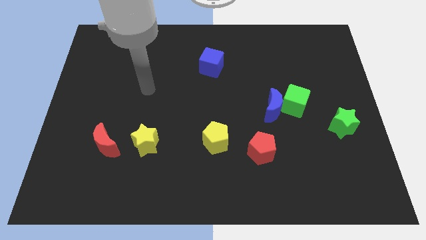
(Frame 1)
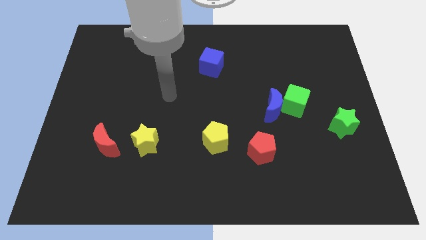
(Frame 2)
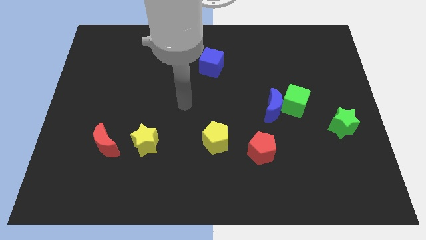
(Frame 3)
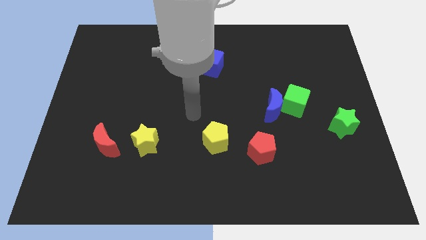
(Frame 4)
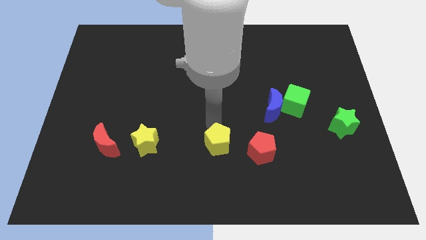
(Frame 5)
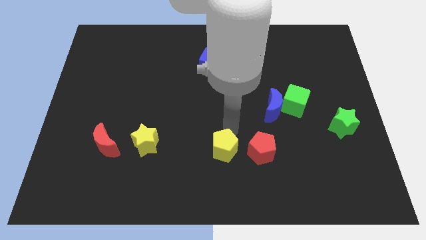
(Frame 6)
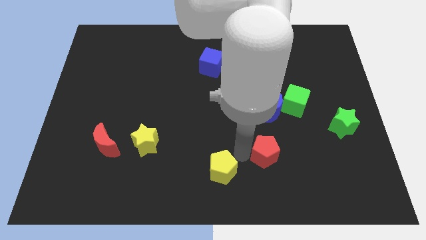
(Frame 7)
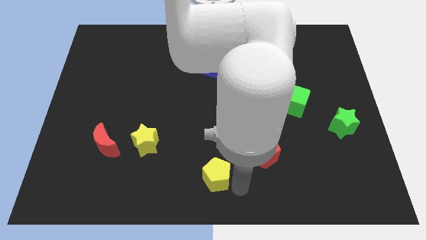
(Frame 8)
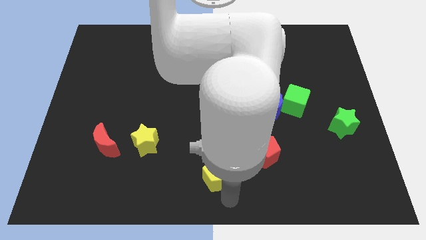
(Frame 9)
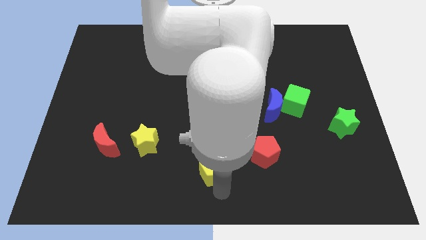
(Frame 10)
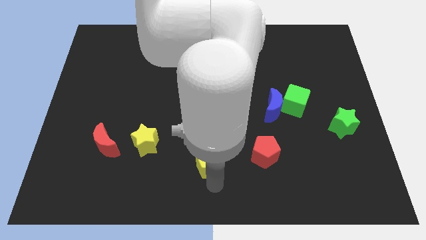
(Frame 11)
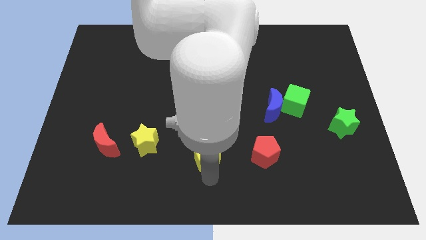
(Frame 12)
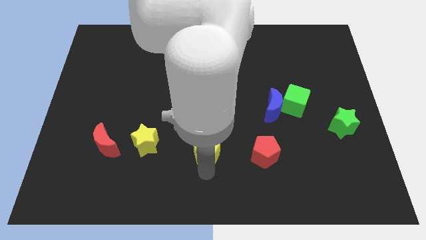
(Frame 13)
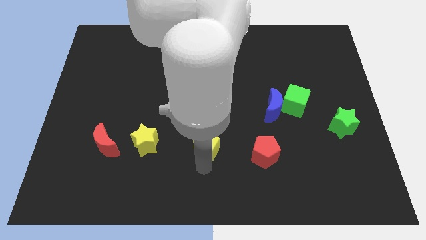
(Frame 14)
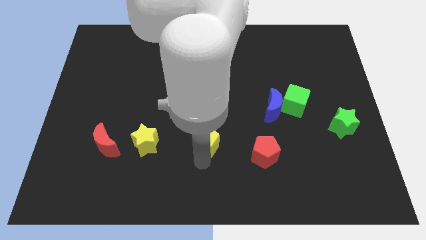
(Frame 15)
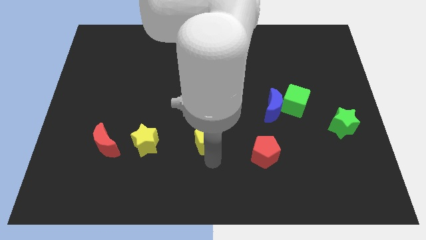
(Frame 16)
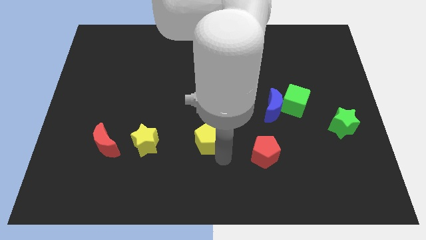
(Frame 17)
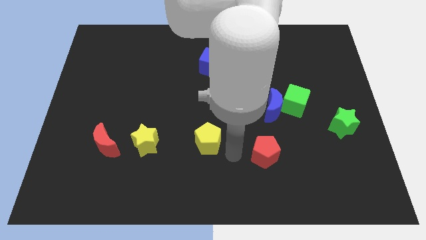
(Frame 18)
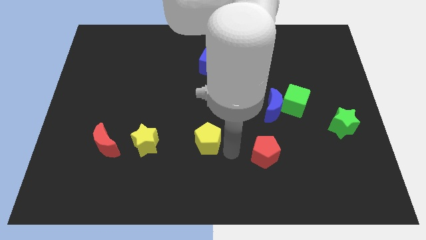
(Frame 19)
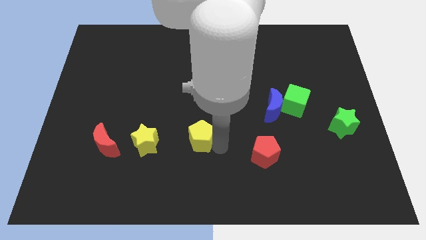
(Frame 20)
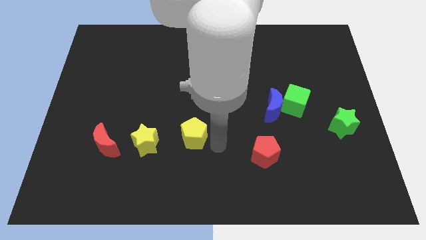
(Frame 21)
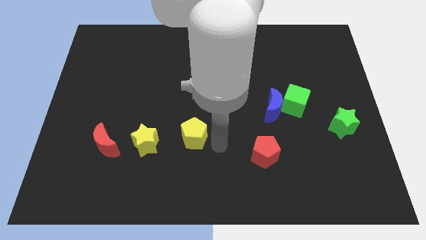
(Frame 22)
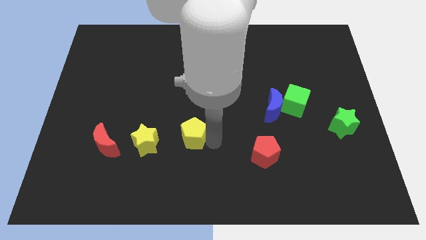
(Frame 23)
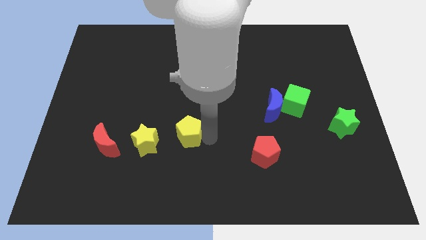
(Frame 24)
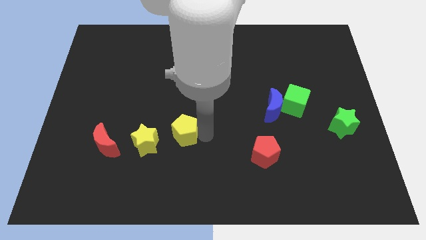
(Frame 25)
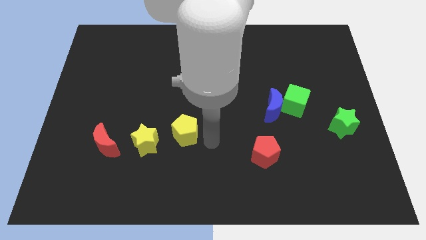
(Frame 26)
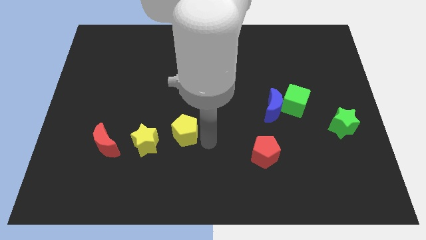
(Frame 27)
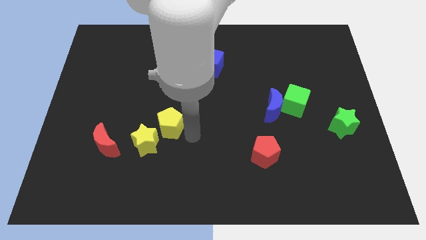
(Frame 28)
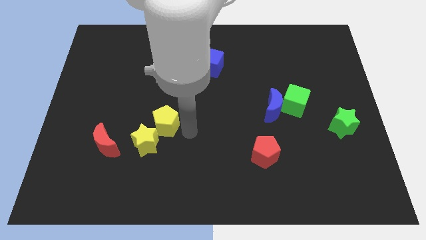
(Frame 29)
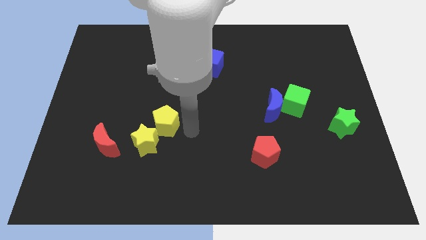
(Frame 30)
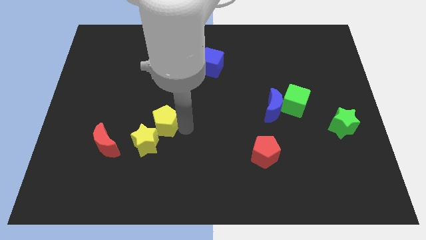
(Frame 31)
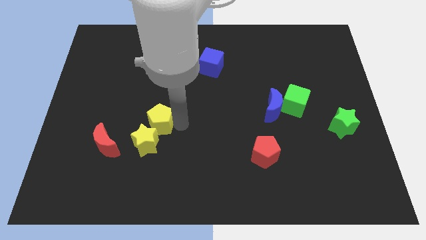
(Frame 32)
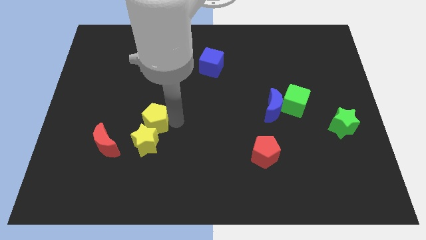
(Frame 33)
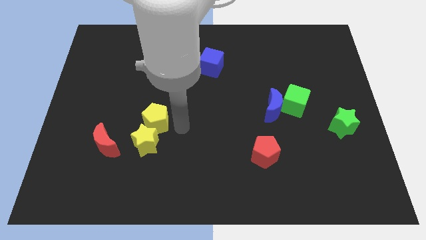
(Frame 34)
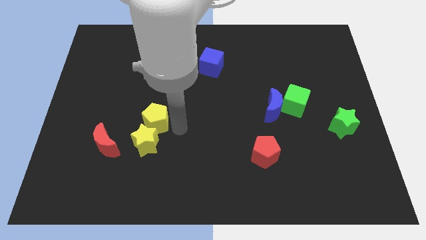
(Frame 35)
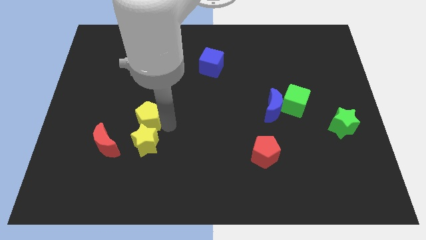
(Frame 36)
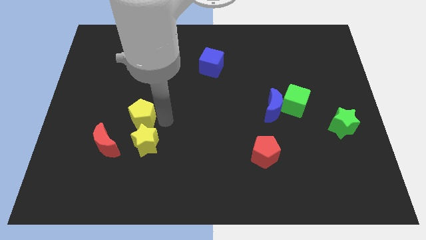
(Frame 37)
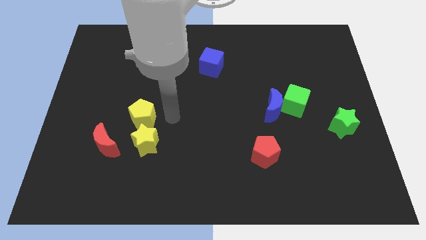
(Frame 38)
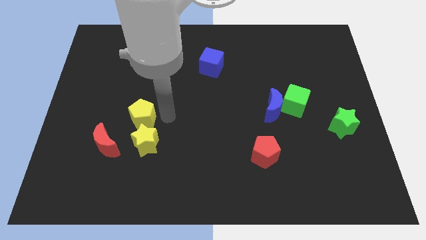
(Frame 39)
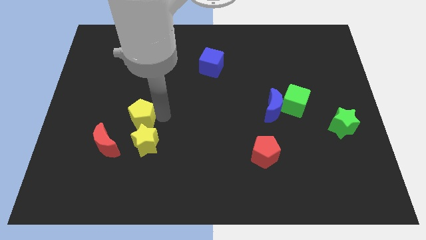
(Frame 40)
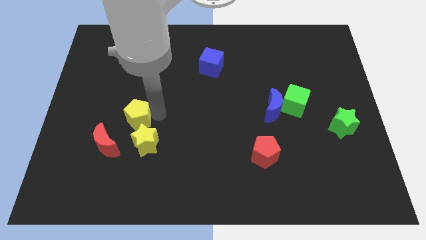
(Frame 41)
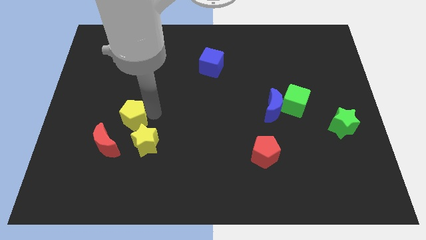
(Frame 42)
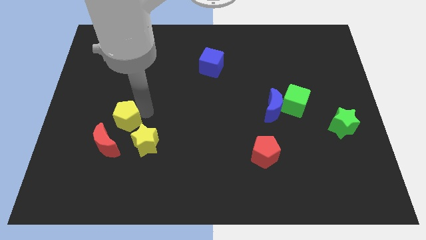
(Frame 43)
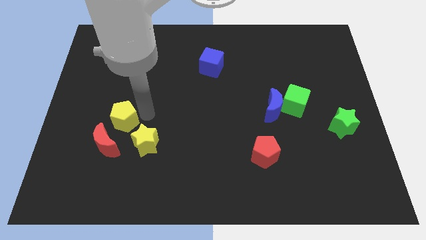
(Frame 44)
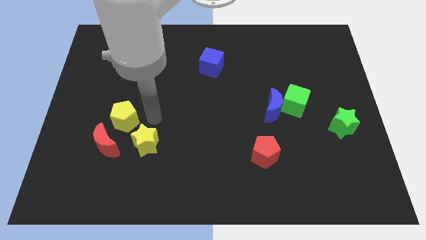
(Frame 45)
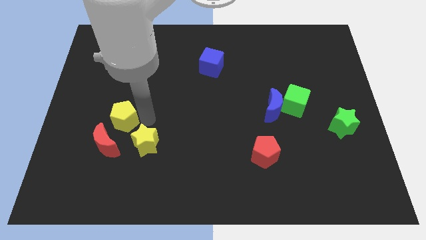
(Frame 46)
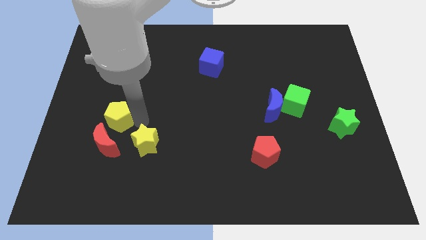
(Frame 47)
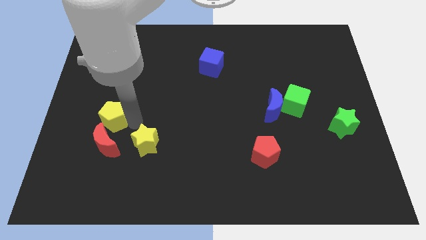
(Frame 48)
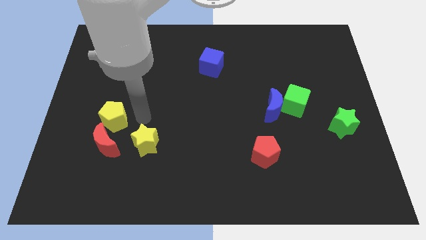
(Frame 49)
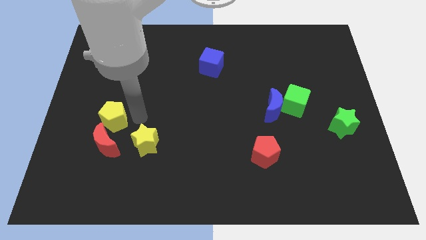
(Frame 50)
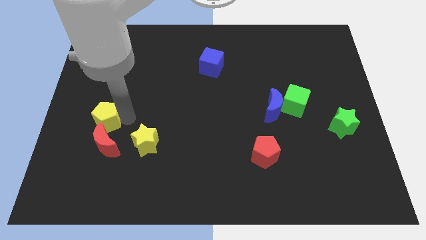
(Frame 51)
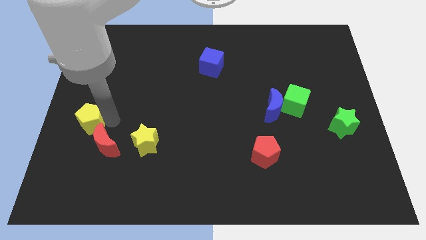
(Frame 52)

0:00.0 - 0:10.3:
slide the yellow pentagon to the left side of the board

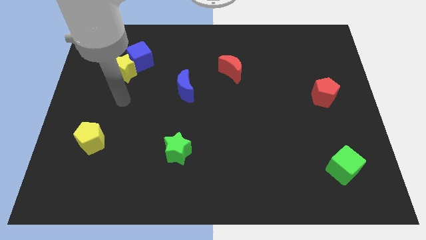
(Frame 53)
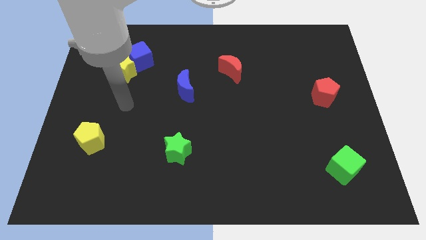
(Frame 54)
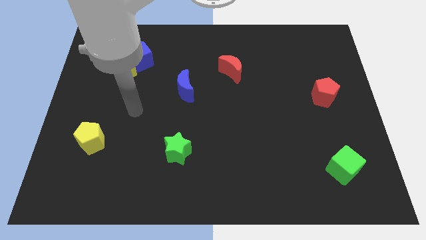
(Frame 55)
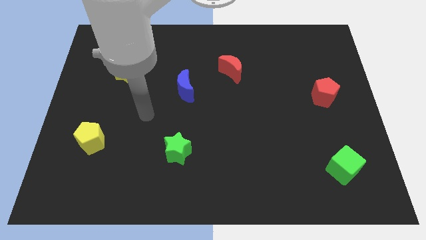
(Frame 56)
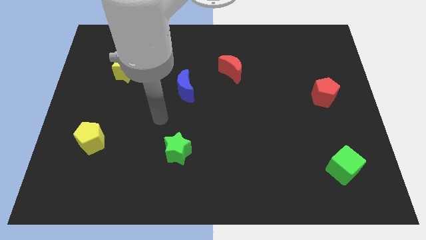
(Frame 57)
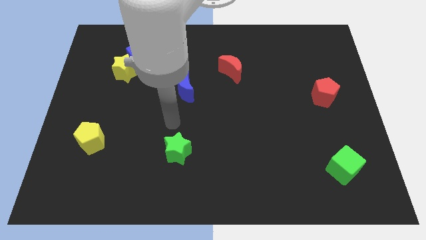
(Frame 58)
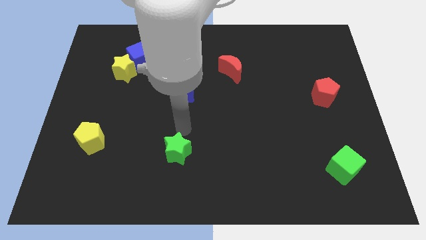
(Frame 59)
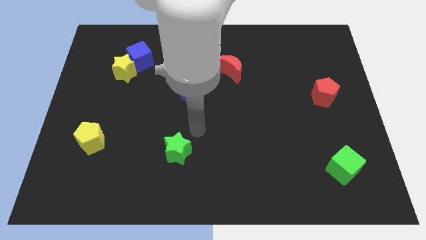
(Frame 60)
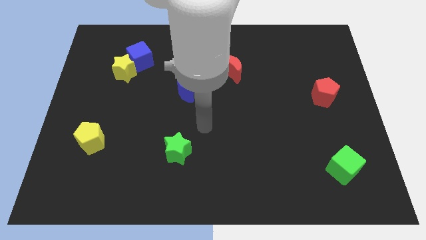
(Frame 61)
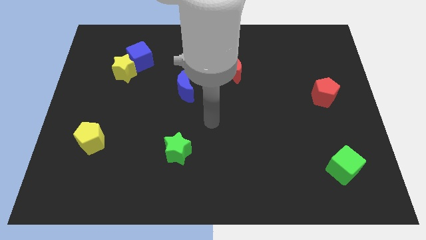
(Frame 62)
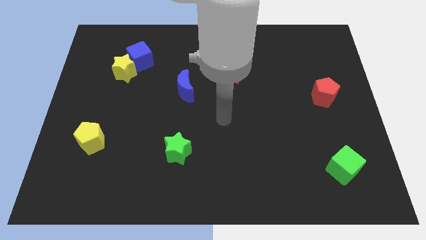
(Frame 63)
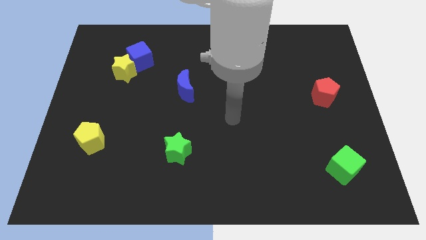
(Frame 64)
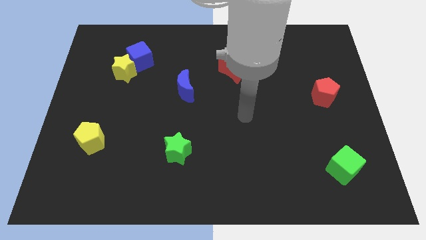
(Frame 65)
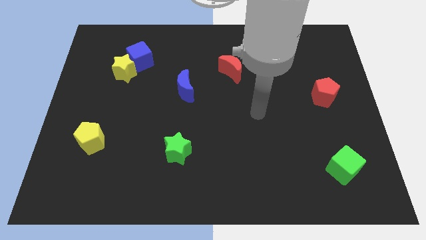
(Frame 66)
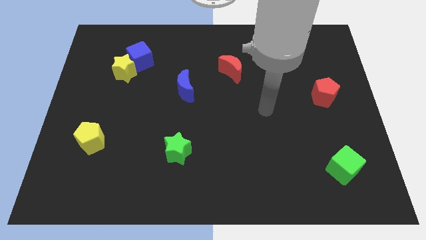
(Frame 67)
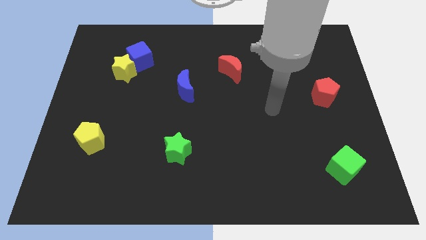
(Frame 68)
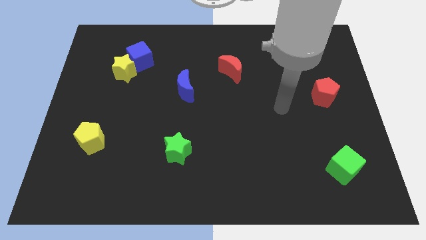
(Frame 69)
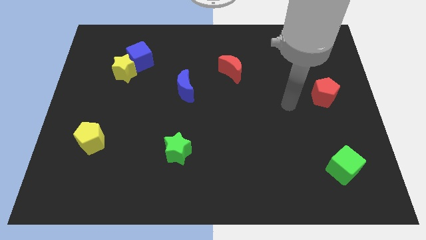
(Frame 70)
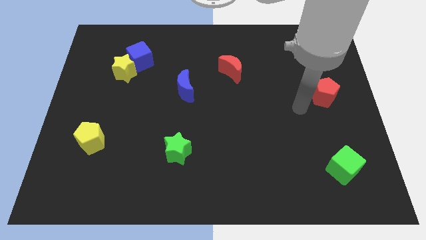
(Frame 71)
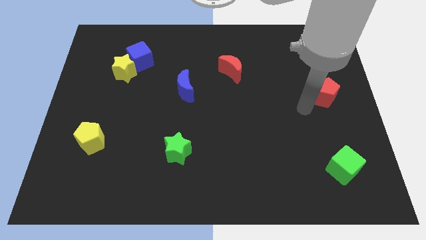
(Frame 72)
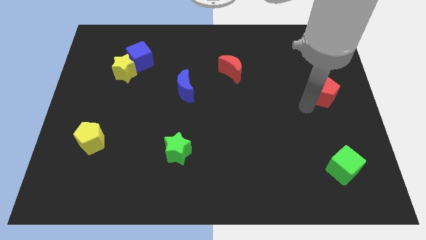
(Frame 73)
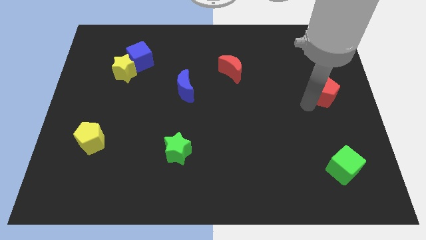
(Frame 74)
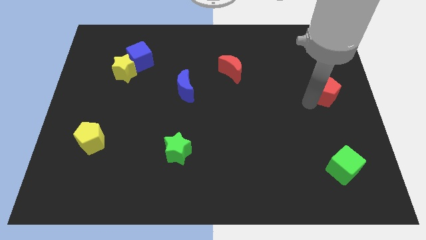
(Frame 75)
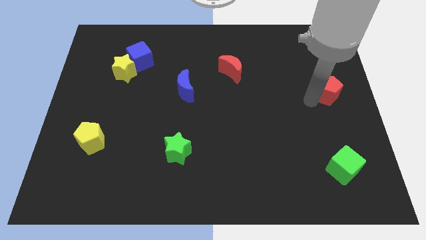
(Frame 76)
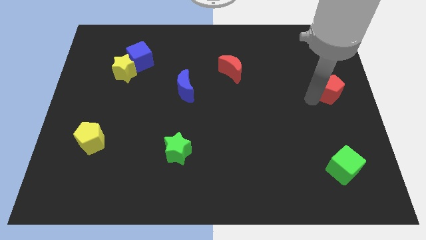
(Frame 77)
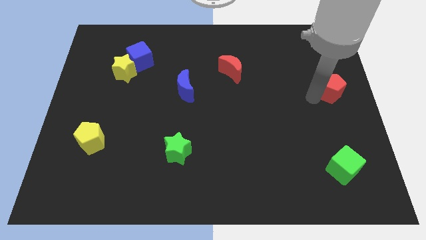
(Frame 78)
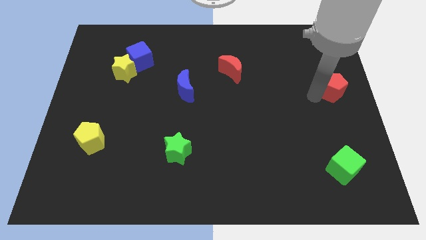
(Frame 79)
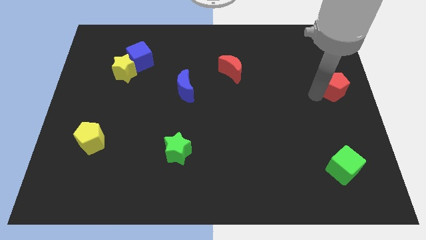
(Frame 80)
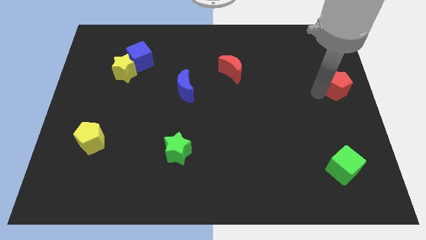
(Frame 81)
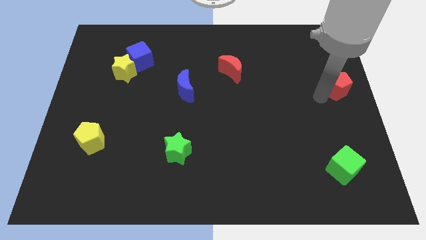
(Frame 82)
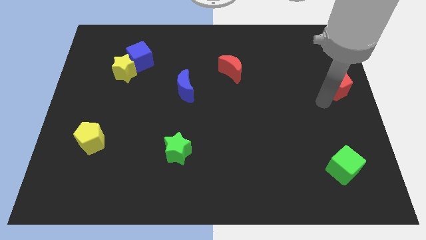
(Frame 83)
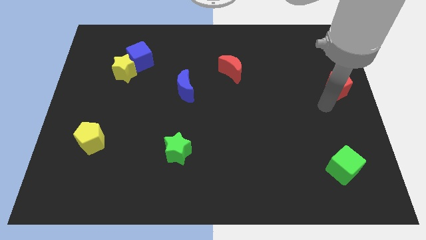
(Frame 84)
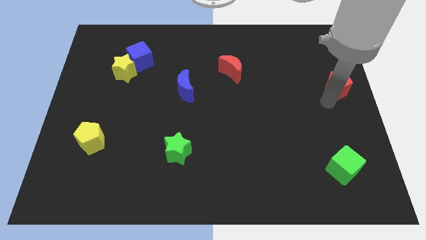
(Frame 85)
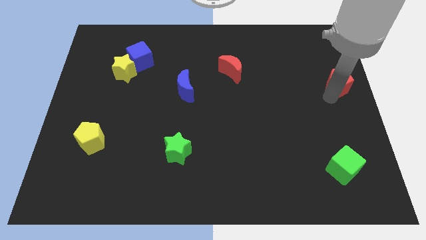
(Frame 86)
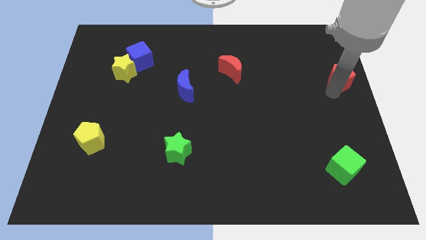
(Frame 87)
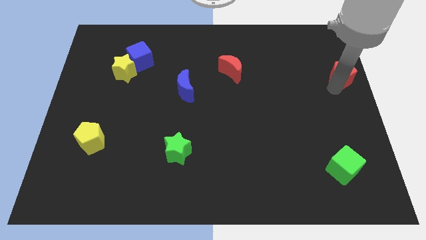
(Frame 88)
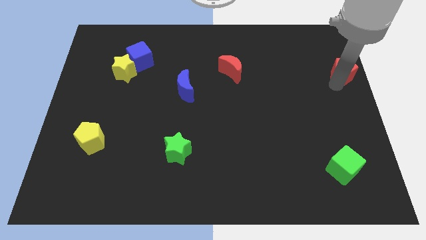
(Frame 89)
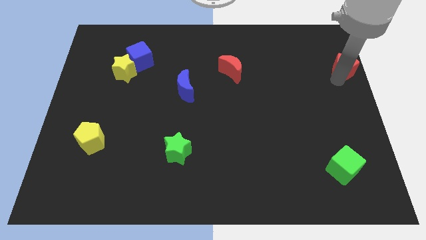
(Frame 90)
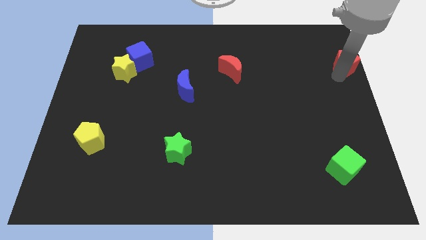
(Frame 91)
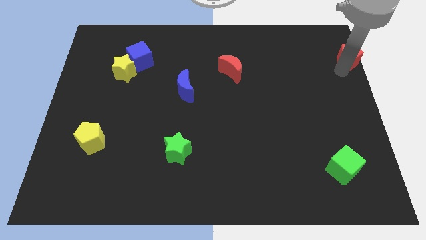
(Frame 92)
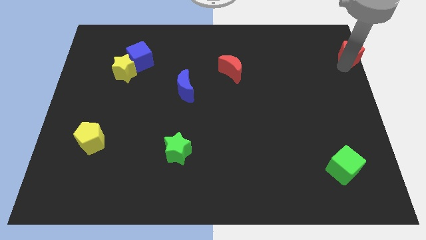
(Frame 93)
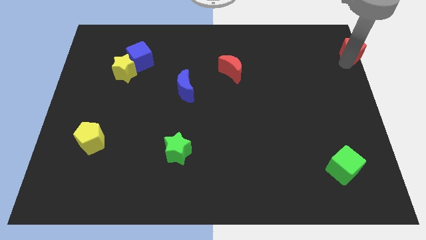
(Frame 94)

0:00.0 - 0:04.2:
push the red pentagon to the top right corner
